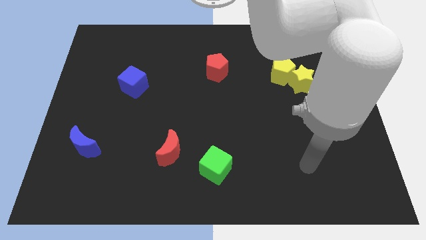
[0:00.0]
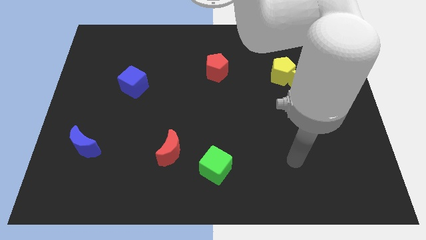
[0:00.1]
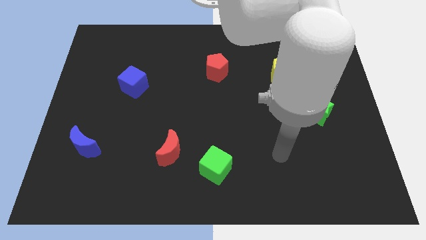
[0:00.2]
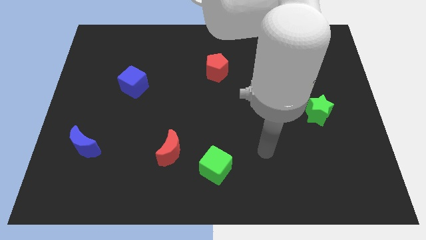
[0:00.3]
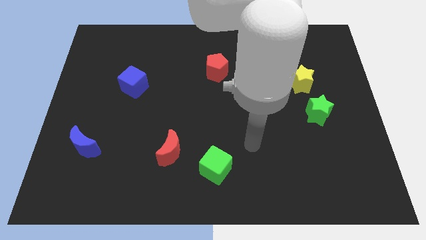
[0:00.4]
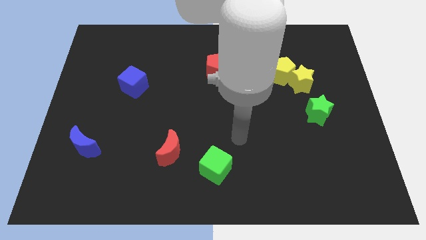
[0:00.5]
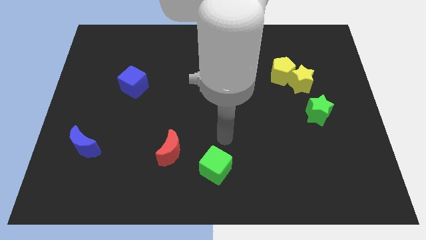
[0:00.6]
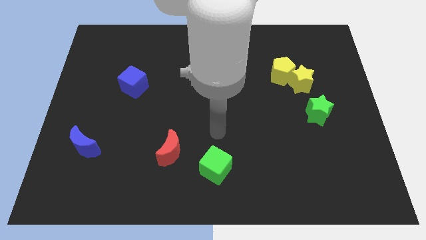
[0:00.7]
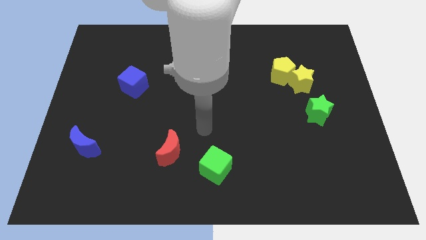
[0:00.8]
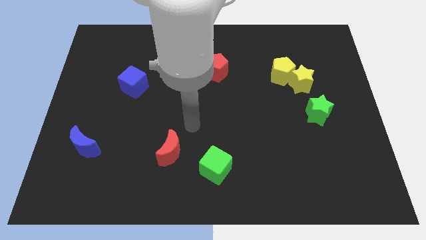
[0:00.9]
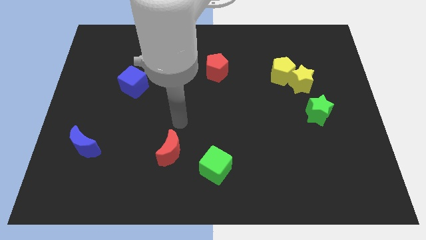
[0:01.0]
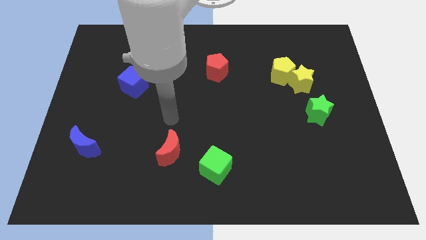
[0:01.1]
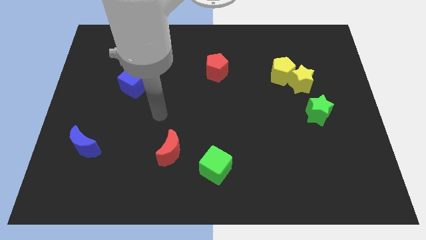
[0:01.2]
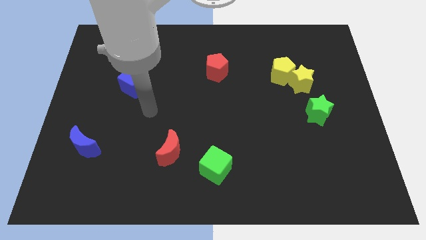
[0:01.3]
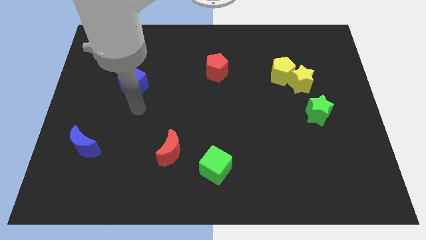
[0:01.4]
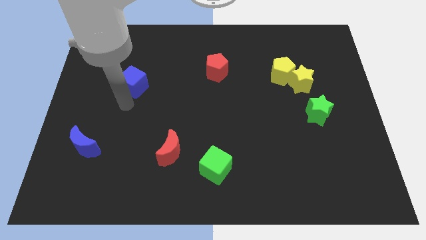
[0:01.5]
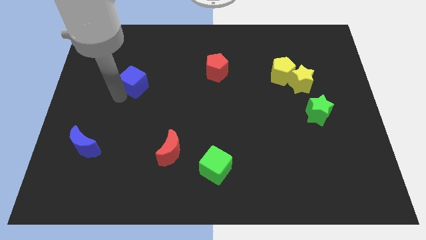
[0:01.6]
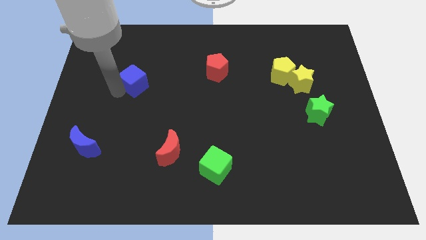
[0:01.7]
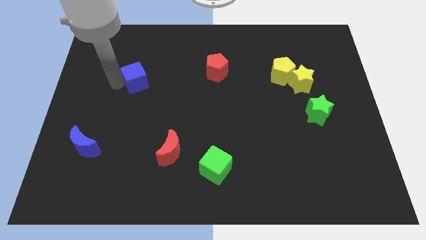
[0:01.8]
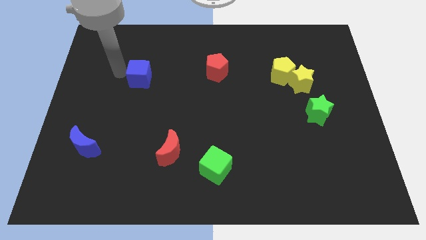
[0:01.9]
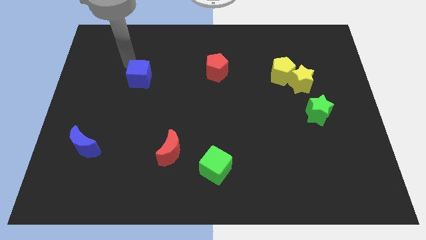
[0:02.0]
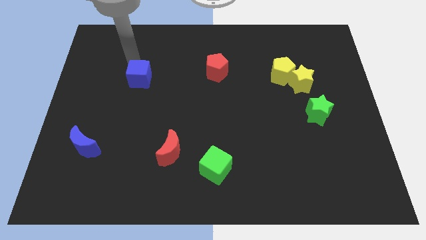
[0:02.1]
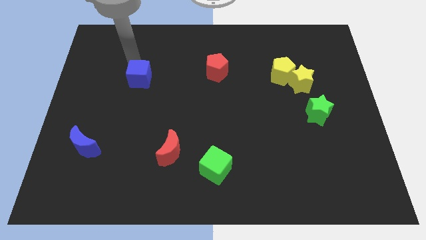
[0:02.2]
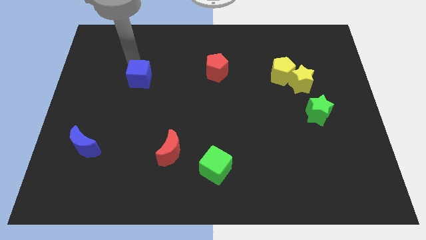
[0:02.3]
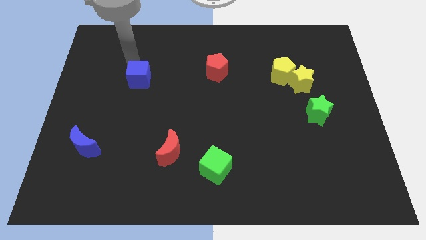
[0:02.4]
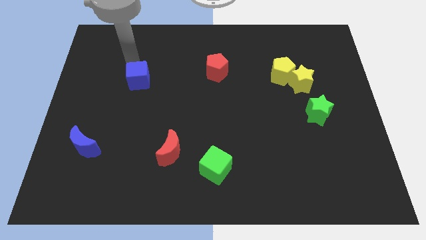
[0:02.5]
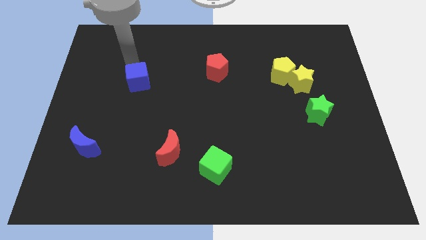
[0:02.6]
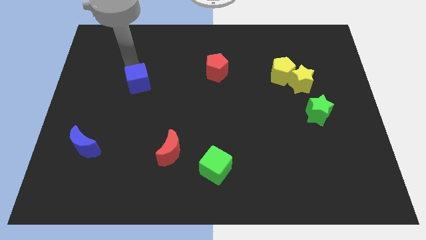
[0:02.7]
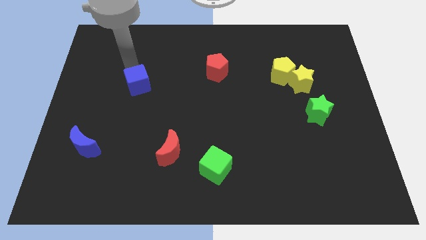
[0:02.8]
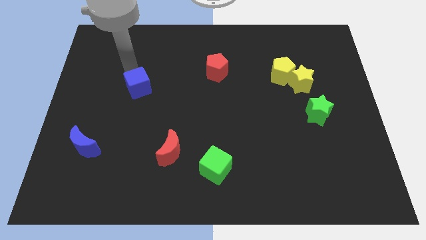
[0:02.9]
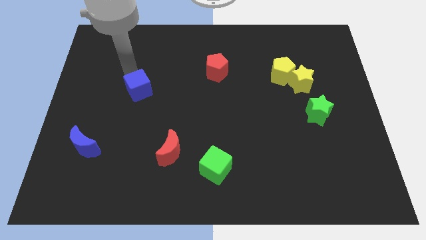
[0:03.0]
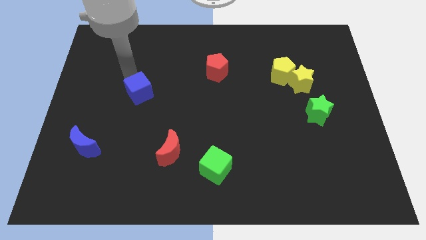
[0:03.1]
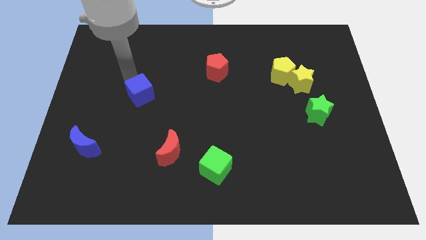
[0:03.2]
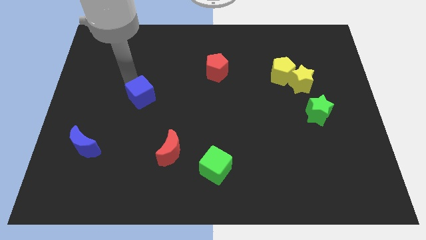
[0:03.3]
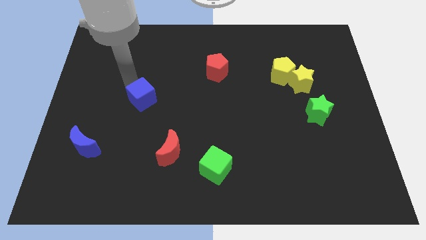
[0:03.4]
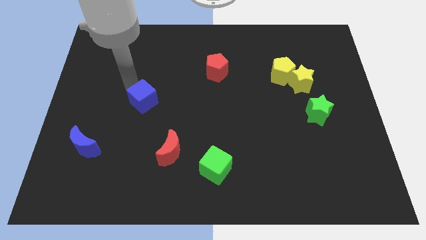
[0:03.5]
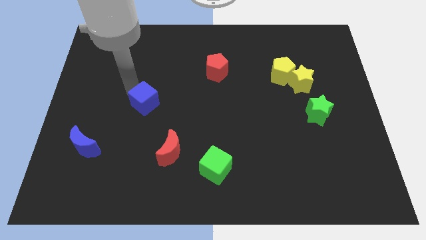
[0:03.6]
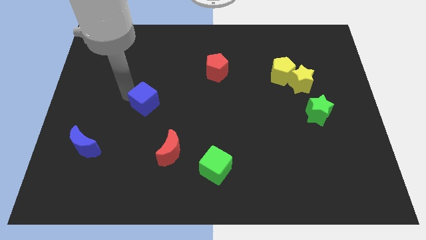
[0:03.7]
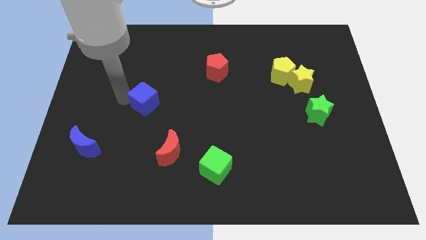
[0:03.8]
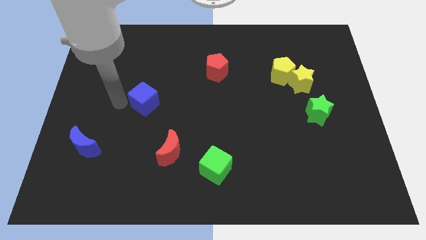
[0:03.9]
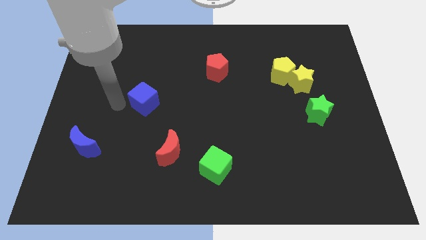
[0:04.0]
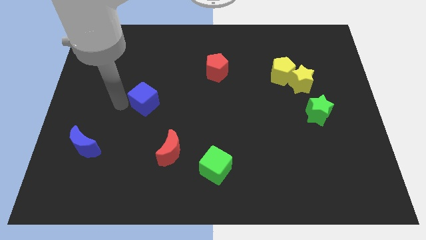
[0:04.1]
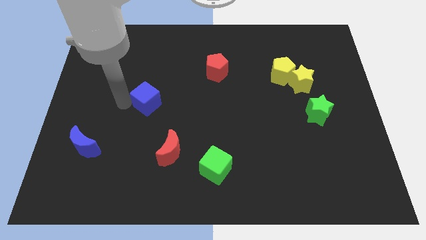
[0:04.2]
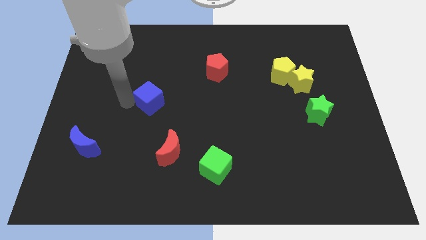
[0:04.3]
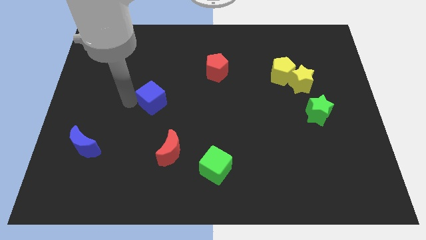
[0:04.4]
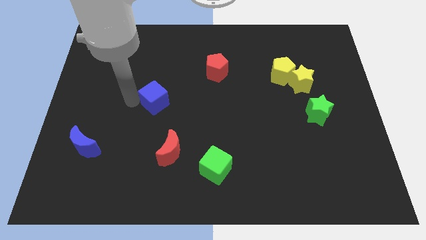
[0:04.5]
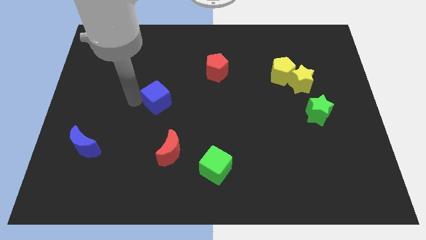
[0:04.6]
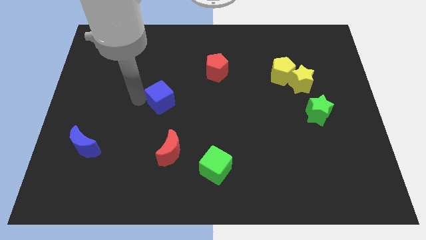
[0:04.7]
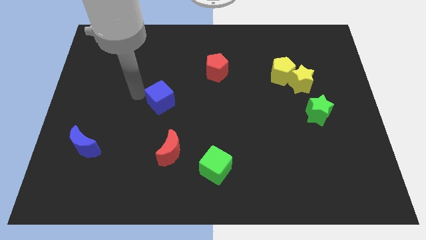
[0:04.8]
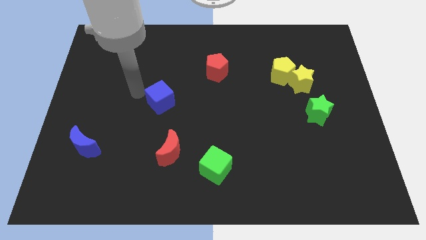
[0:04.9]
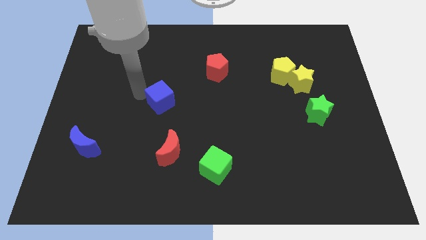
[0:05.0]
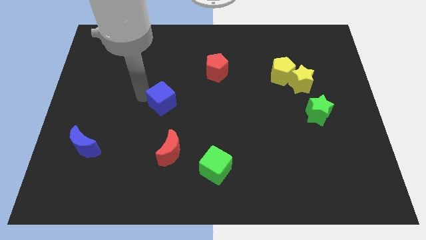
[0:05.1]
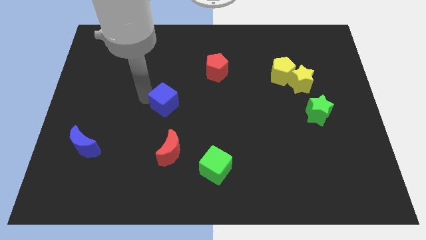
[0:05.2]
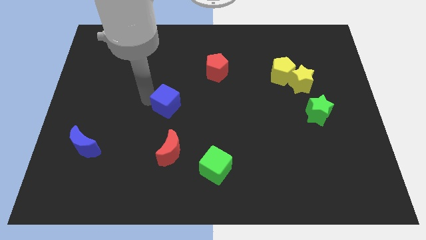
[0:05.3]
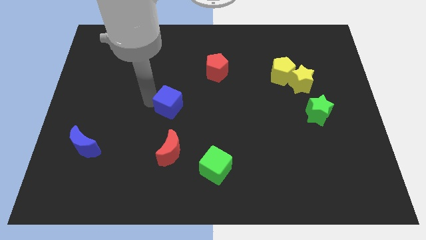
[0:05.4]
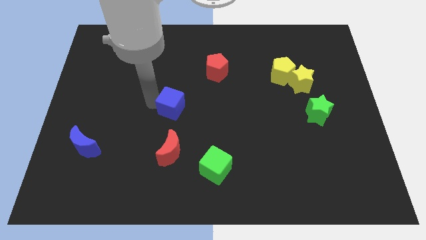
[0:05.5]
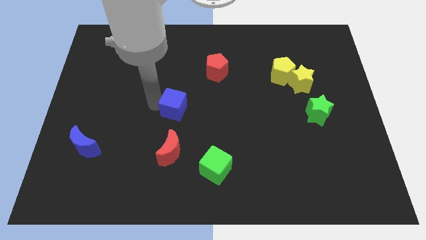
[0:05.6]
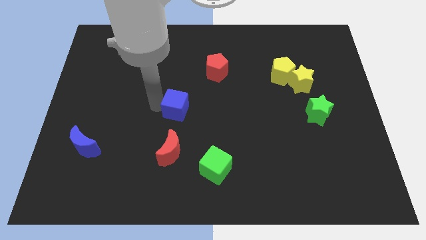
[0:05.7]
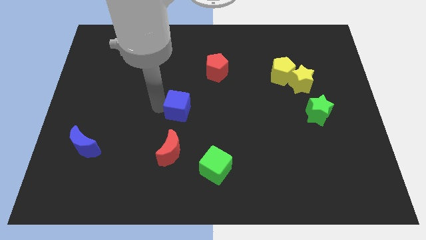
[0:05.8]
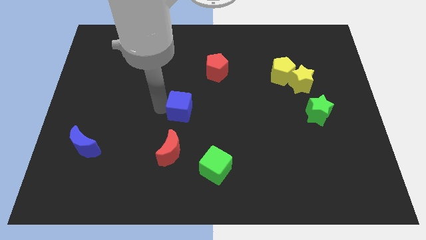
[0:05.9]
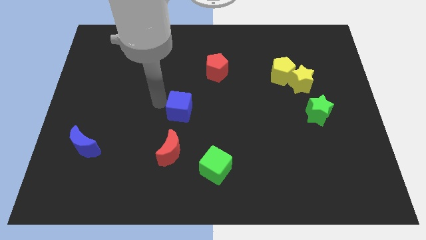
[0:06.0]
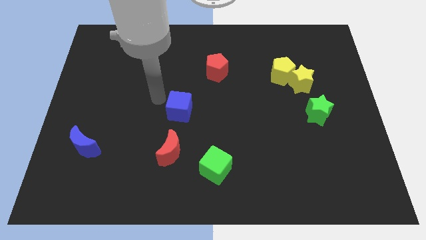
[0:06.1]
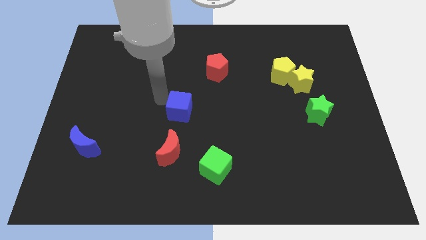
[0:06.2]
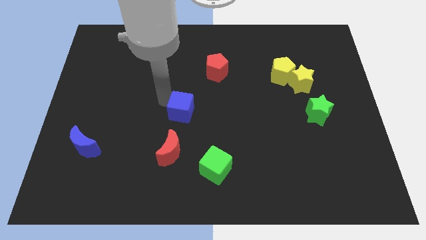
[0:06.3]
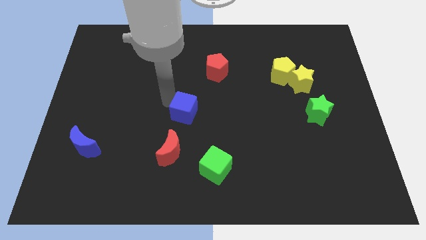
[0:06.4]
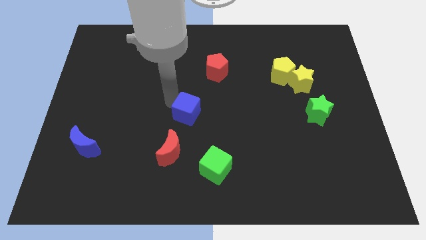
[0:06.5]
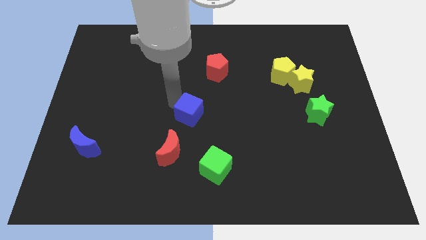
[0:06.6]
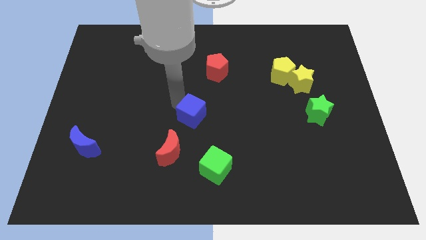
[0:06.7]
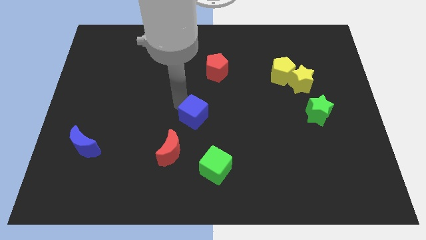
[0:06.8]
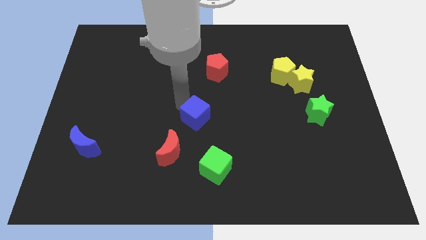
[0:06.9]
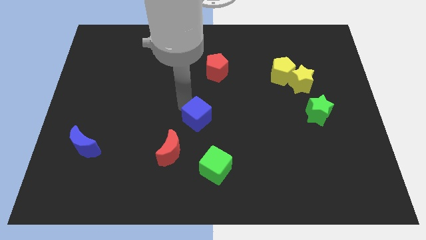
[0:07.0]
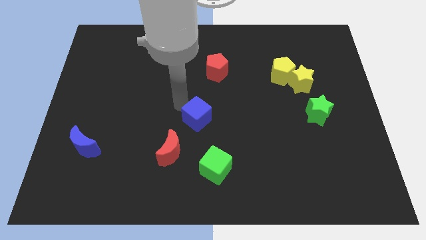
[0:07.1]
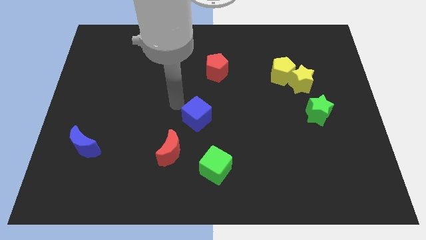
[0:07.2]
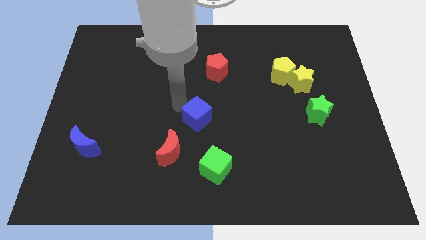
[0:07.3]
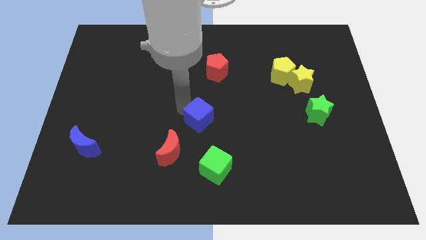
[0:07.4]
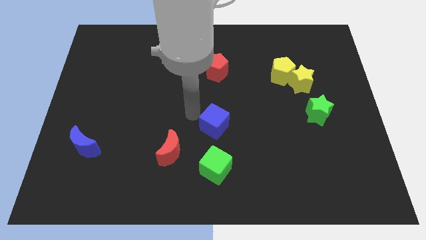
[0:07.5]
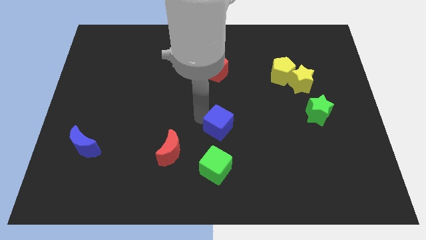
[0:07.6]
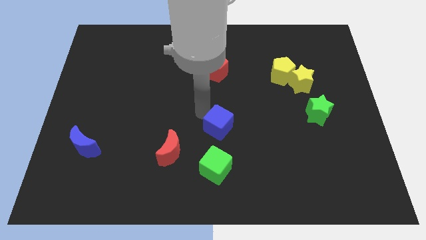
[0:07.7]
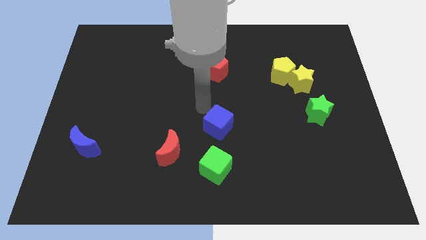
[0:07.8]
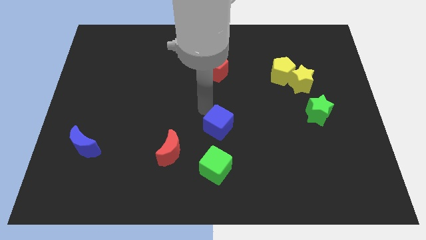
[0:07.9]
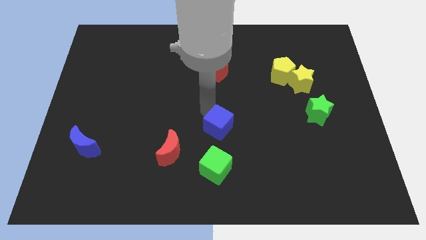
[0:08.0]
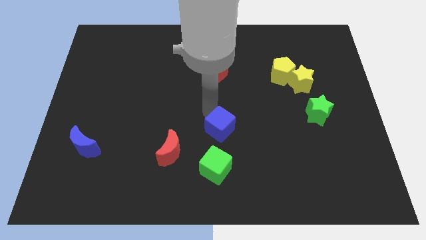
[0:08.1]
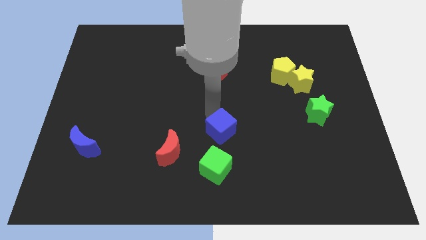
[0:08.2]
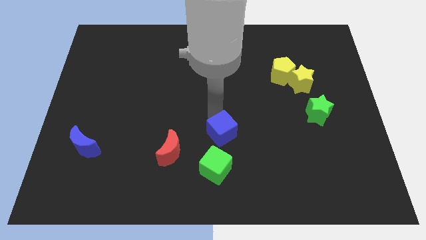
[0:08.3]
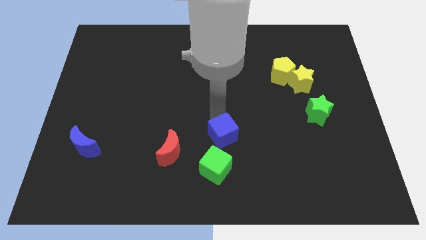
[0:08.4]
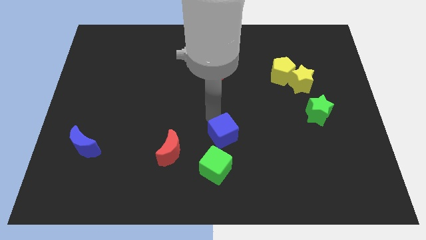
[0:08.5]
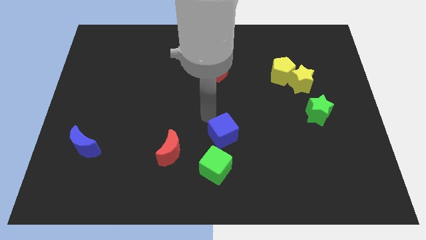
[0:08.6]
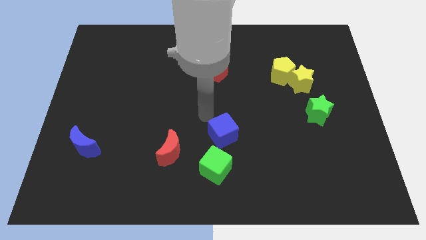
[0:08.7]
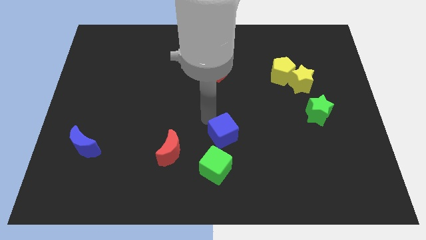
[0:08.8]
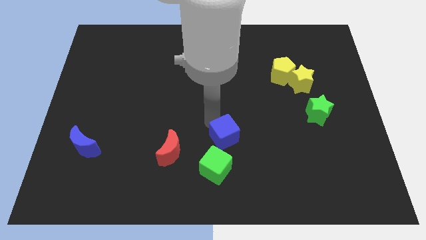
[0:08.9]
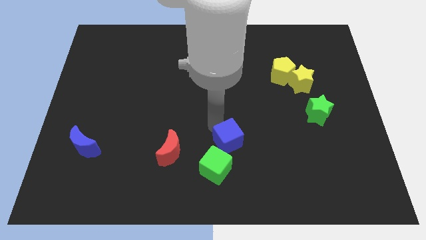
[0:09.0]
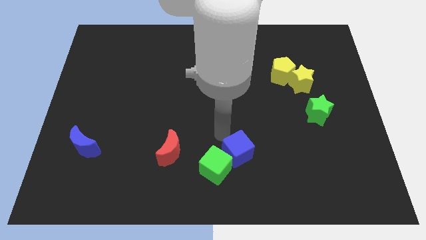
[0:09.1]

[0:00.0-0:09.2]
slide the blue cube just right of the green cube
